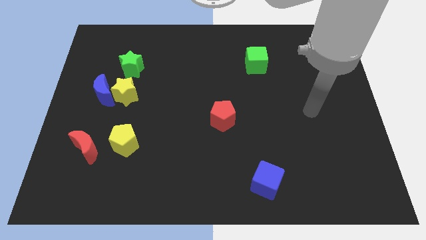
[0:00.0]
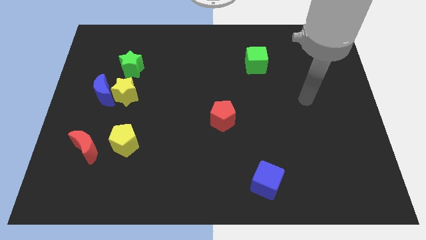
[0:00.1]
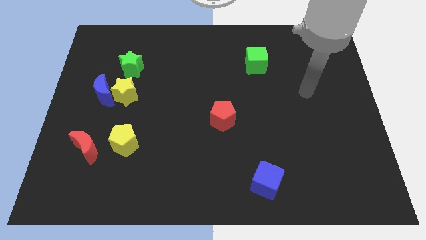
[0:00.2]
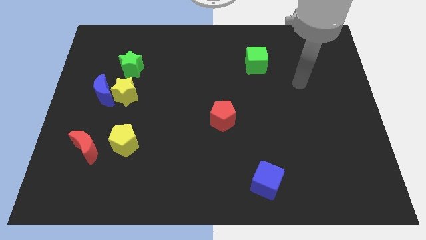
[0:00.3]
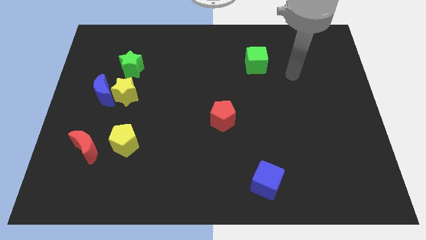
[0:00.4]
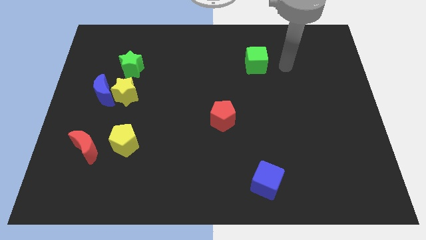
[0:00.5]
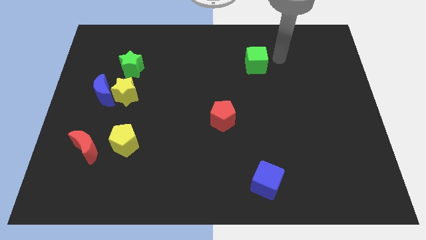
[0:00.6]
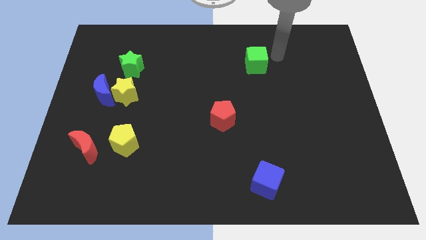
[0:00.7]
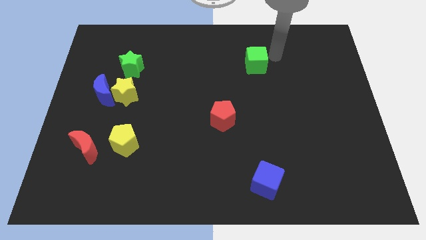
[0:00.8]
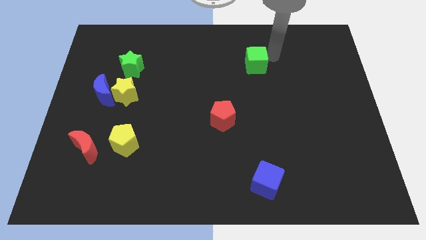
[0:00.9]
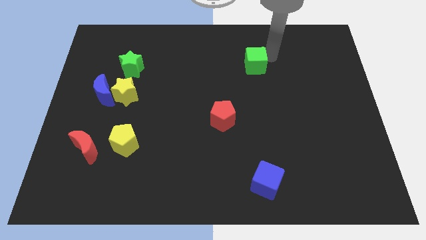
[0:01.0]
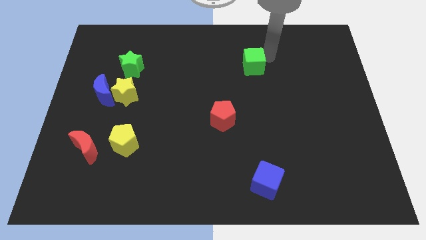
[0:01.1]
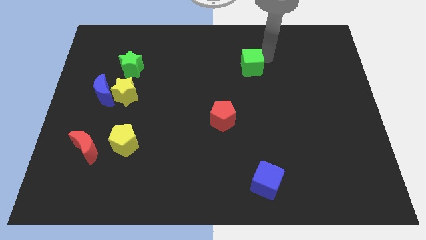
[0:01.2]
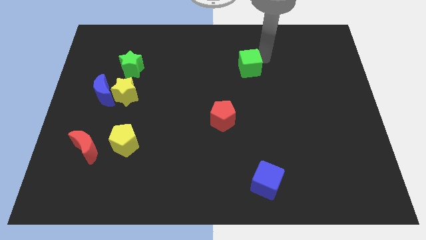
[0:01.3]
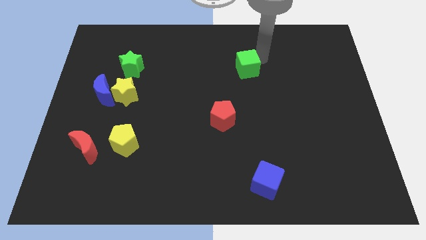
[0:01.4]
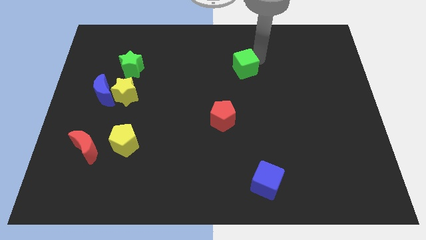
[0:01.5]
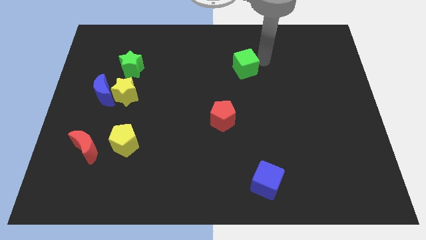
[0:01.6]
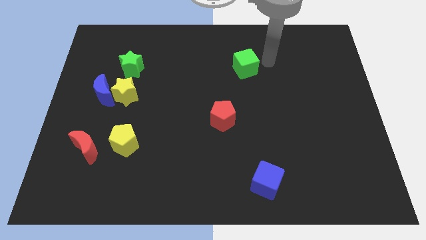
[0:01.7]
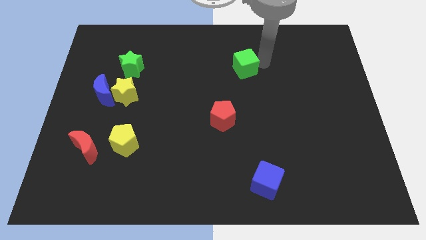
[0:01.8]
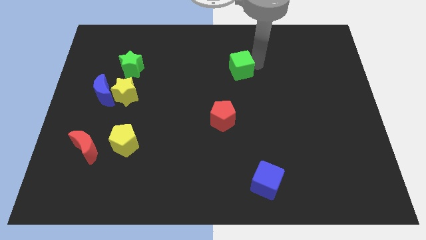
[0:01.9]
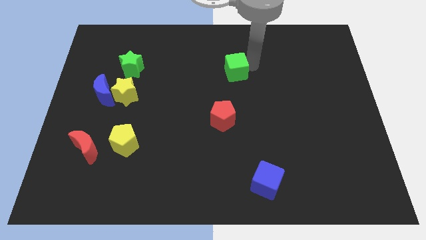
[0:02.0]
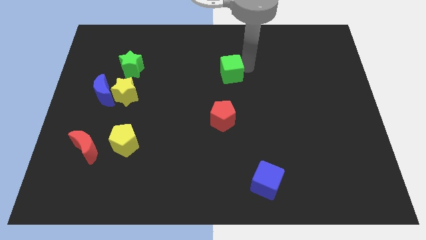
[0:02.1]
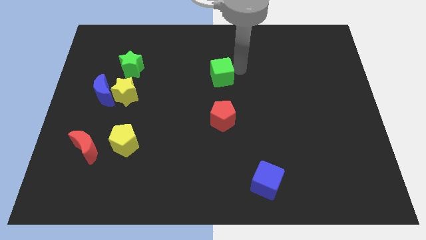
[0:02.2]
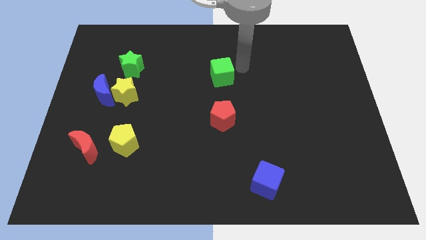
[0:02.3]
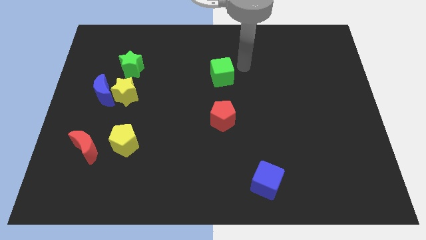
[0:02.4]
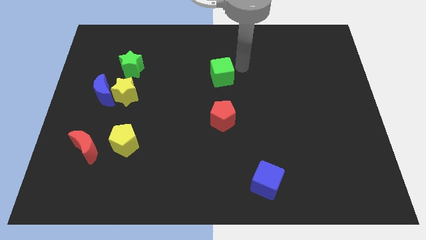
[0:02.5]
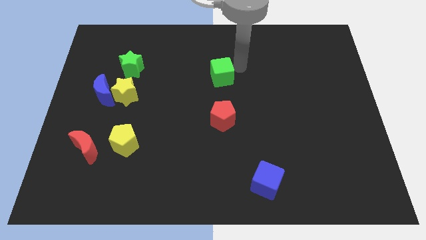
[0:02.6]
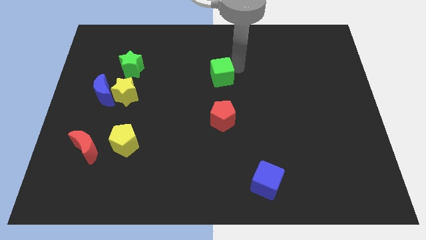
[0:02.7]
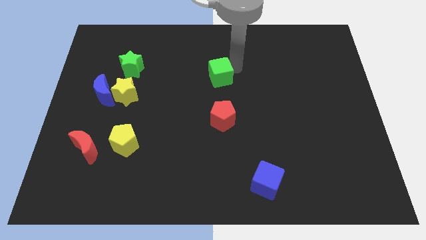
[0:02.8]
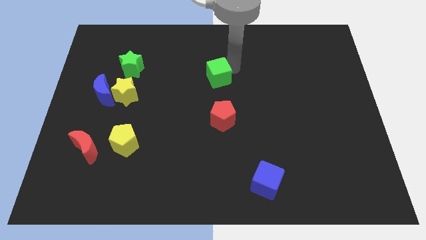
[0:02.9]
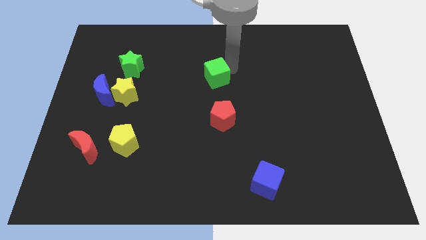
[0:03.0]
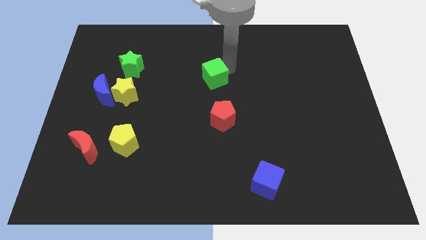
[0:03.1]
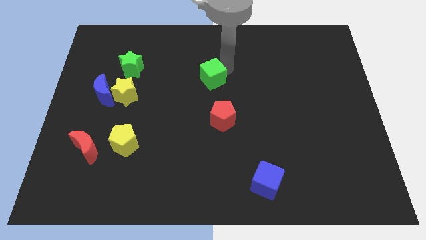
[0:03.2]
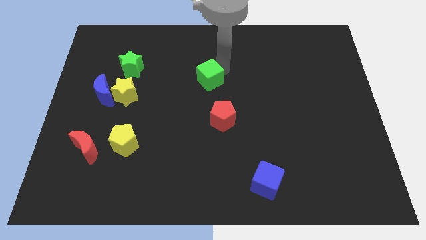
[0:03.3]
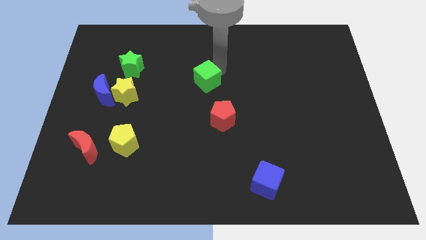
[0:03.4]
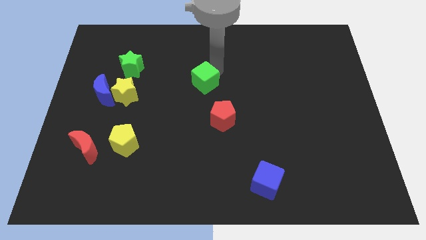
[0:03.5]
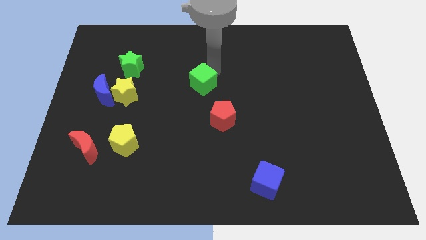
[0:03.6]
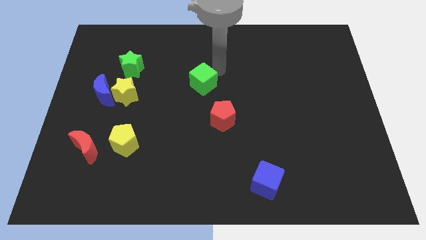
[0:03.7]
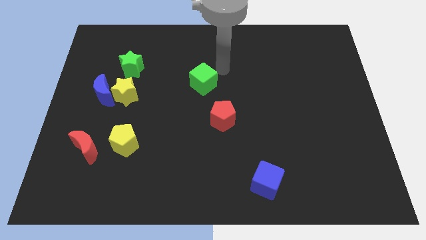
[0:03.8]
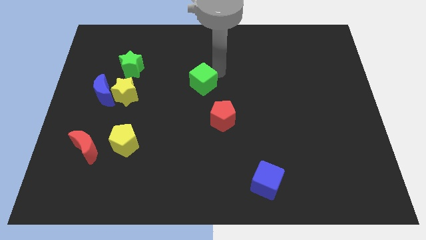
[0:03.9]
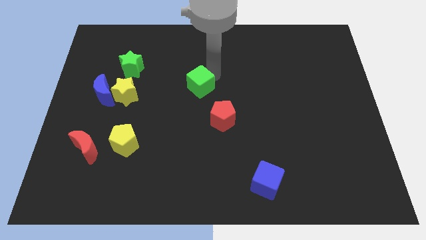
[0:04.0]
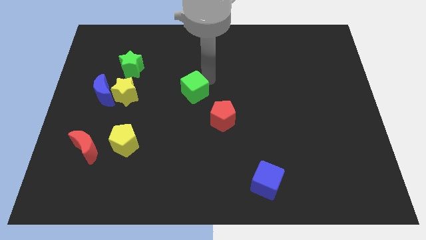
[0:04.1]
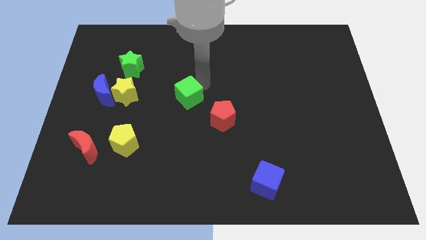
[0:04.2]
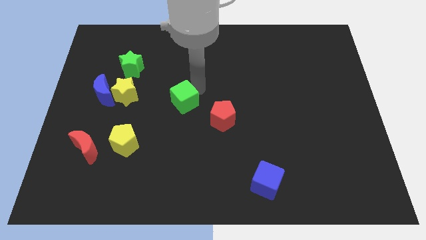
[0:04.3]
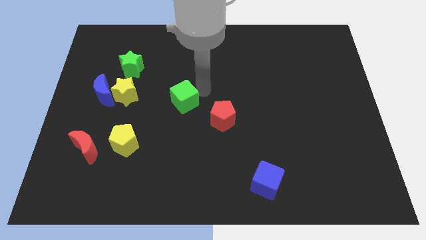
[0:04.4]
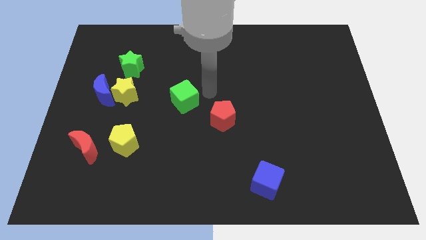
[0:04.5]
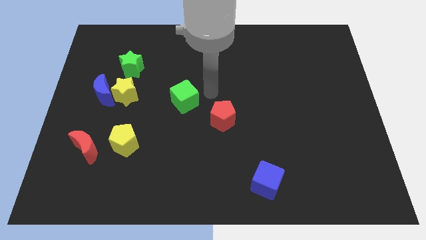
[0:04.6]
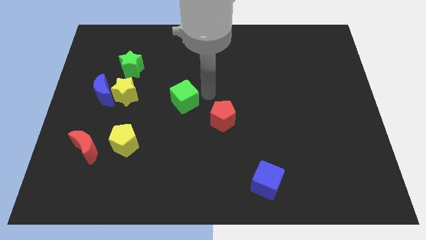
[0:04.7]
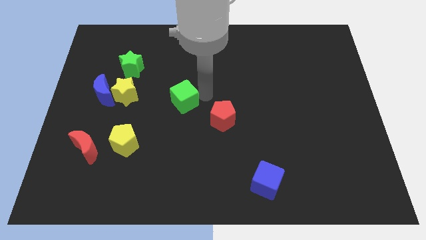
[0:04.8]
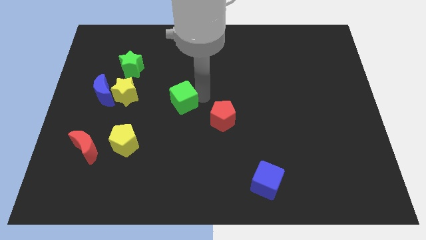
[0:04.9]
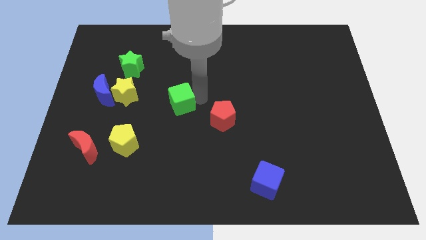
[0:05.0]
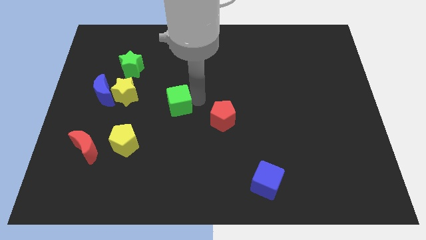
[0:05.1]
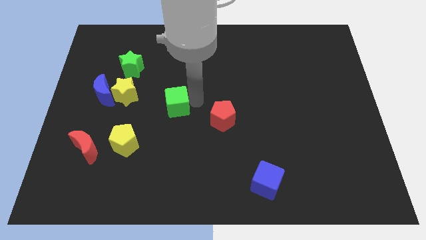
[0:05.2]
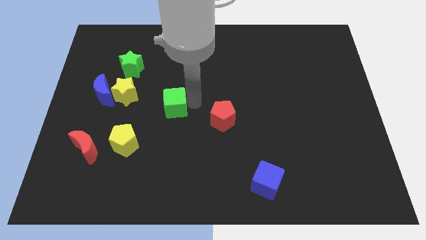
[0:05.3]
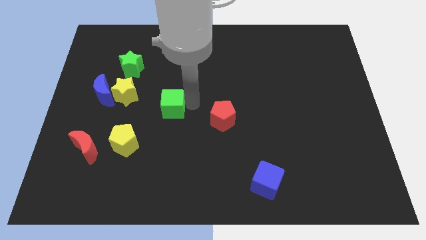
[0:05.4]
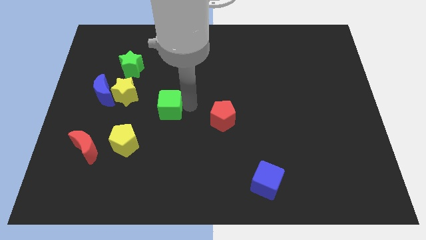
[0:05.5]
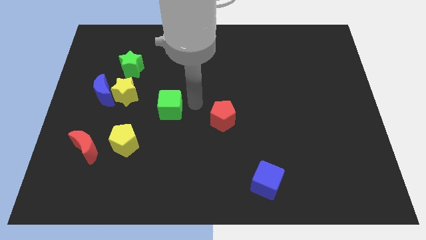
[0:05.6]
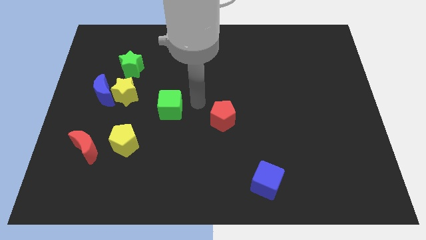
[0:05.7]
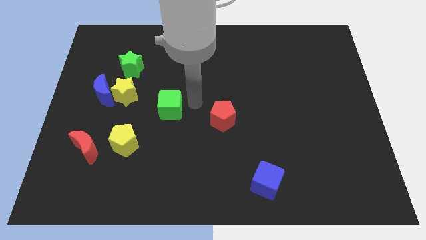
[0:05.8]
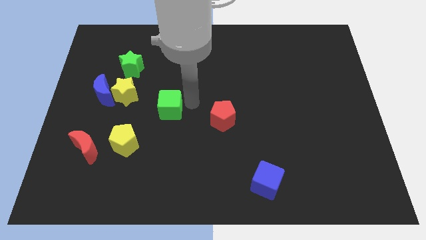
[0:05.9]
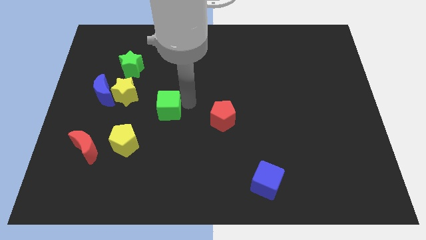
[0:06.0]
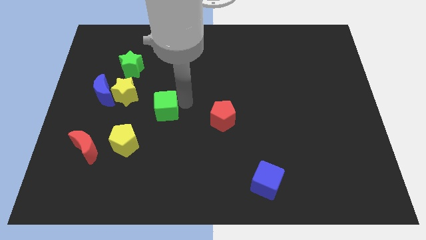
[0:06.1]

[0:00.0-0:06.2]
push the green cube to the bottom right side of the yellow star

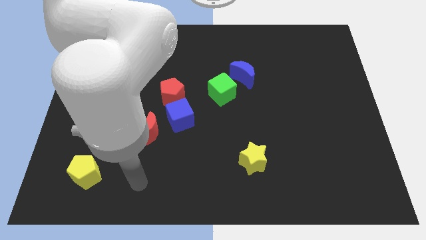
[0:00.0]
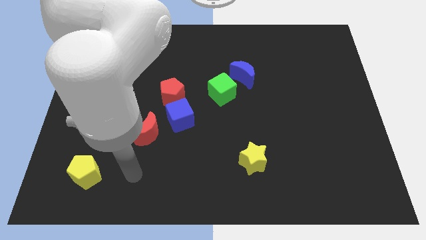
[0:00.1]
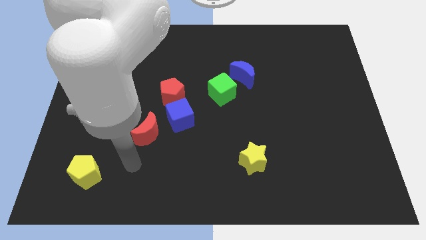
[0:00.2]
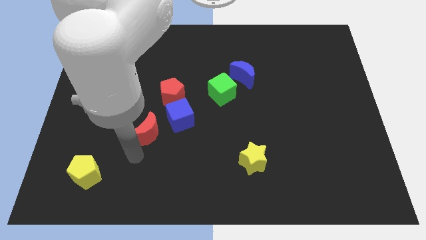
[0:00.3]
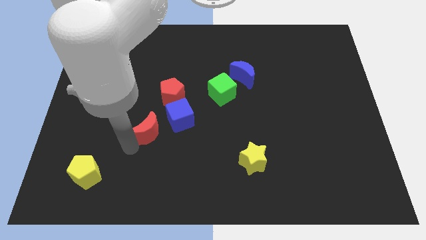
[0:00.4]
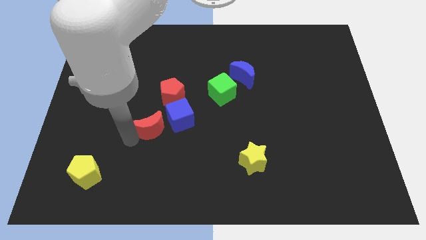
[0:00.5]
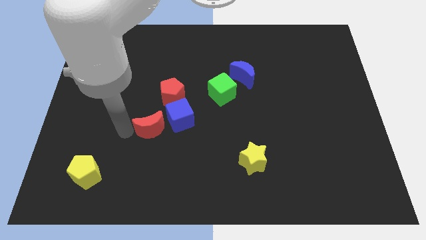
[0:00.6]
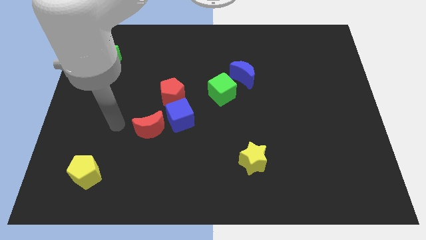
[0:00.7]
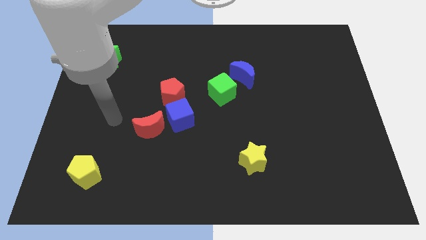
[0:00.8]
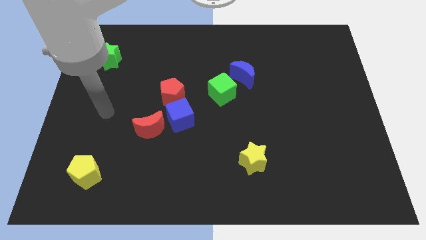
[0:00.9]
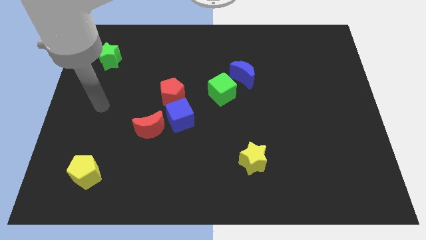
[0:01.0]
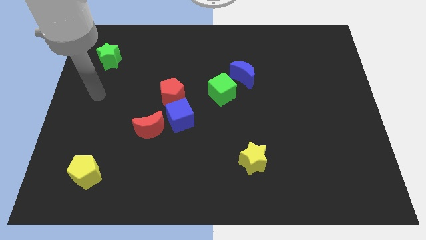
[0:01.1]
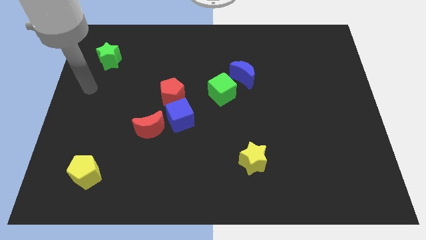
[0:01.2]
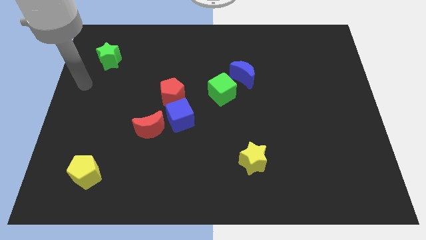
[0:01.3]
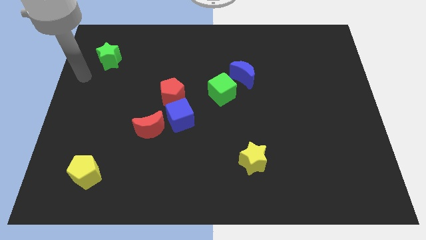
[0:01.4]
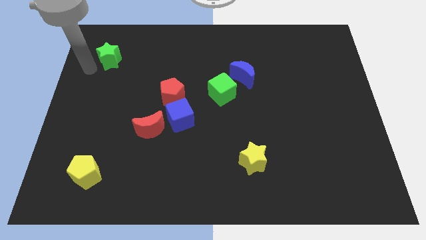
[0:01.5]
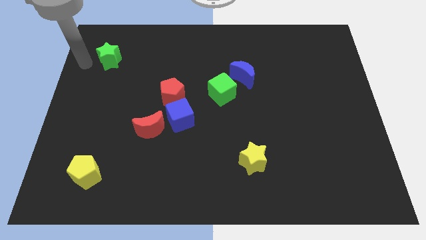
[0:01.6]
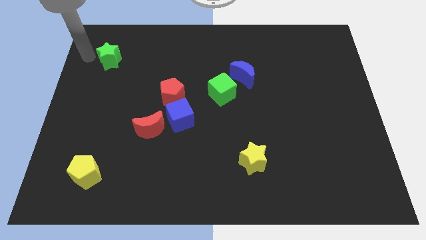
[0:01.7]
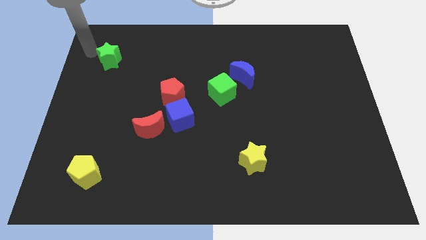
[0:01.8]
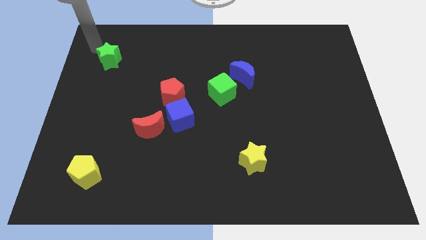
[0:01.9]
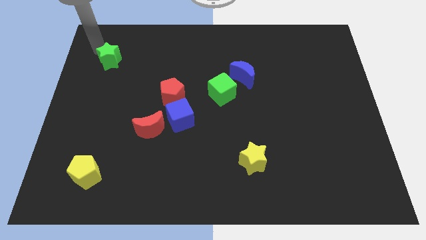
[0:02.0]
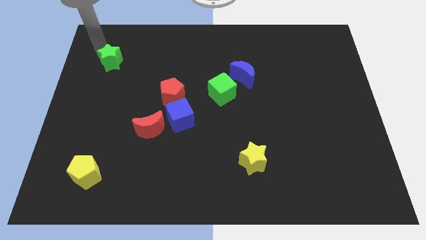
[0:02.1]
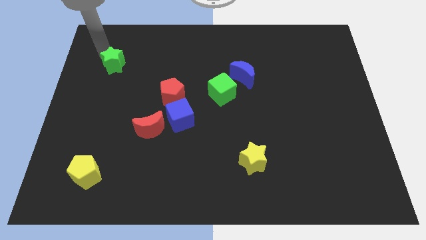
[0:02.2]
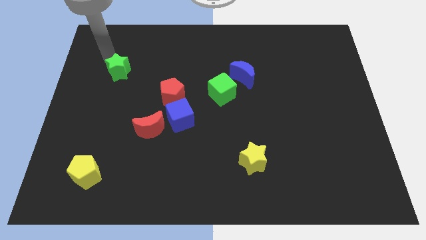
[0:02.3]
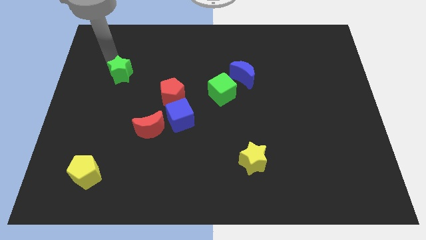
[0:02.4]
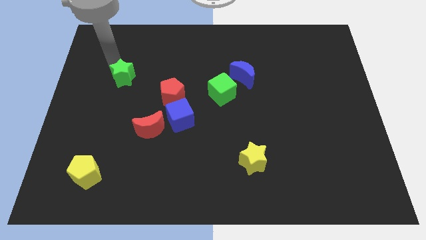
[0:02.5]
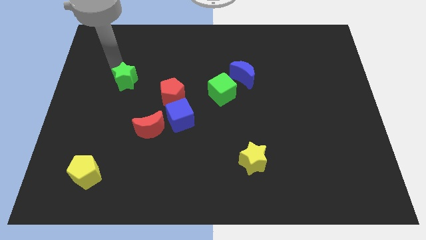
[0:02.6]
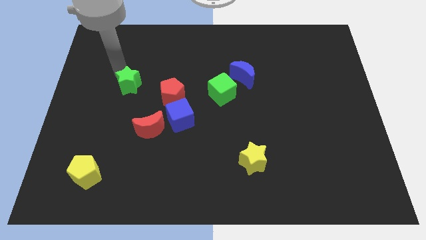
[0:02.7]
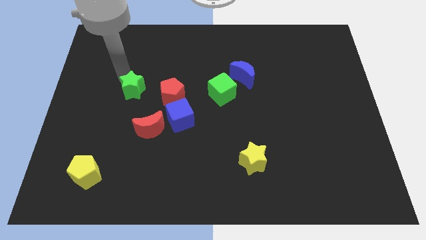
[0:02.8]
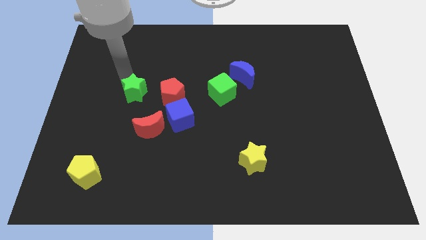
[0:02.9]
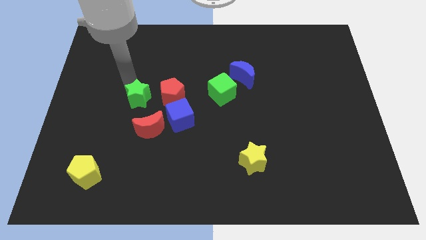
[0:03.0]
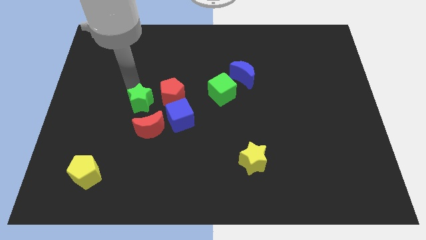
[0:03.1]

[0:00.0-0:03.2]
push the green star to the bottom left of the red pentagon
